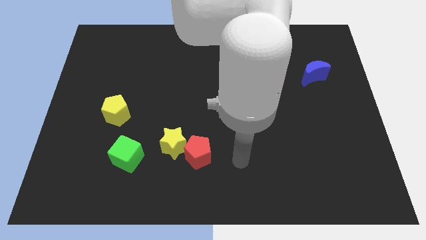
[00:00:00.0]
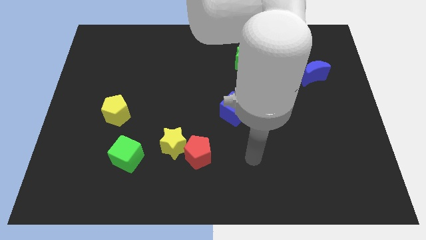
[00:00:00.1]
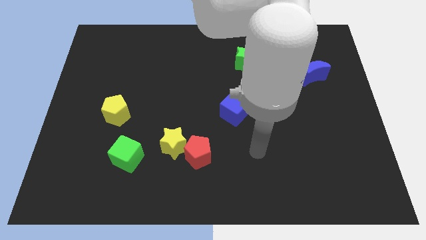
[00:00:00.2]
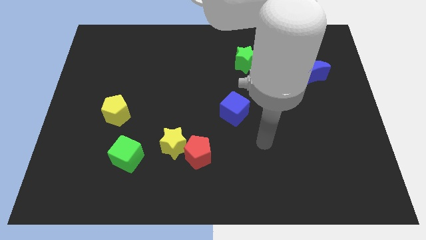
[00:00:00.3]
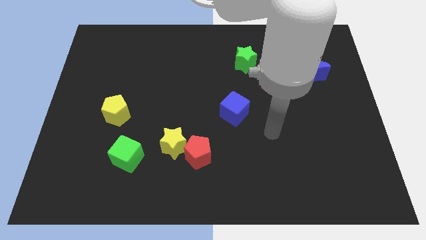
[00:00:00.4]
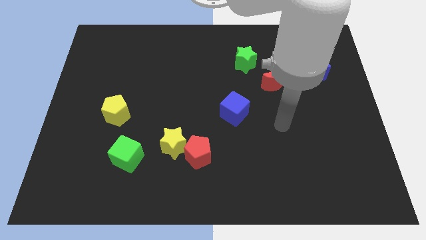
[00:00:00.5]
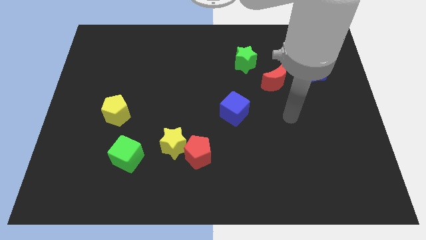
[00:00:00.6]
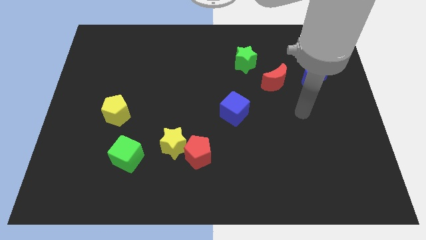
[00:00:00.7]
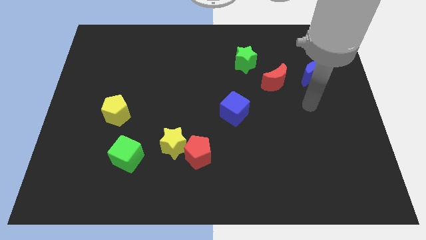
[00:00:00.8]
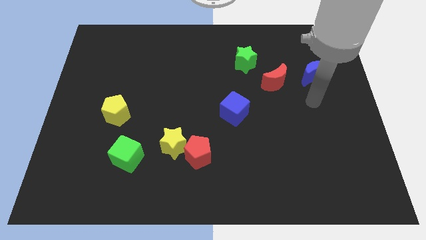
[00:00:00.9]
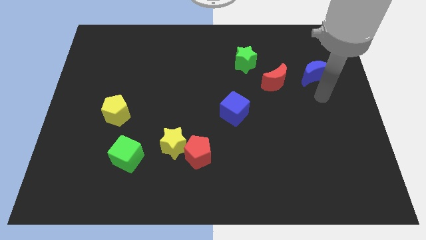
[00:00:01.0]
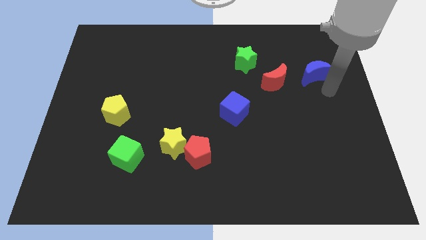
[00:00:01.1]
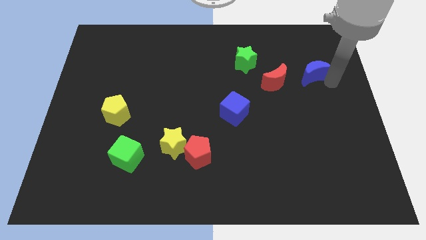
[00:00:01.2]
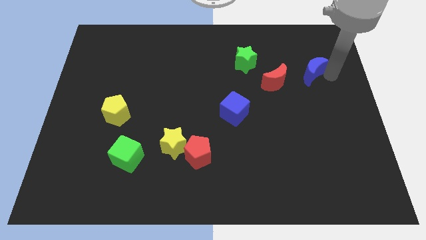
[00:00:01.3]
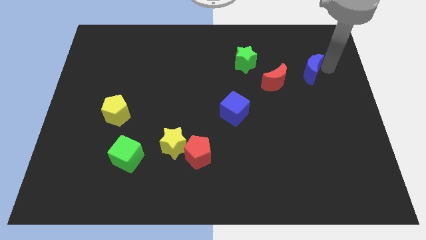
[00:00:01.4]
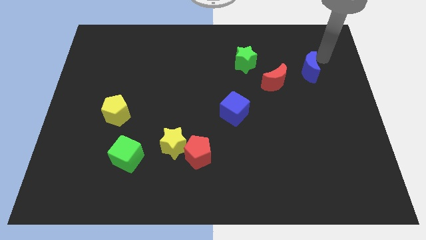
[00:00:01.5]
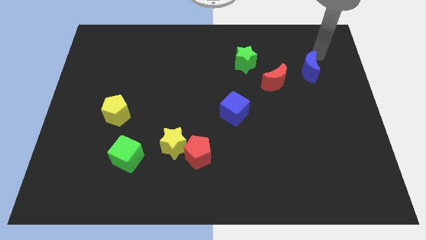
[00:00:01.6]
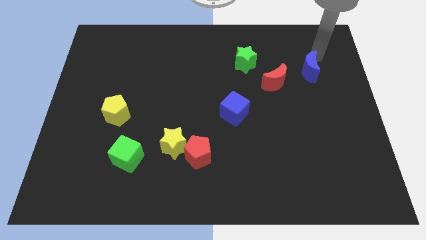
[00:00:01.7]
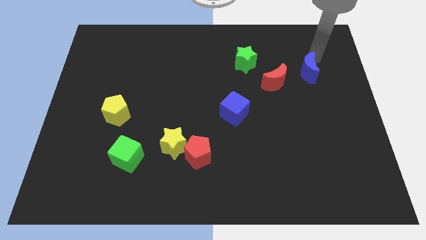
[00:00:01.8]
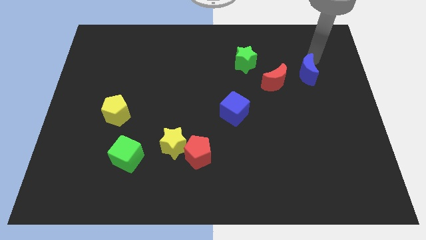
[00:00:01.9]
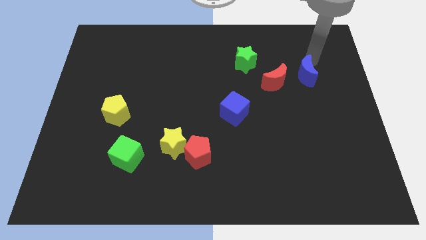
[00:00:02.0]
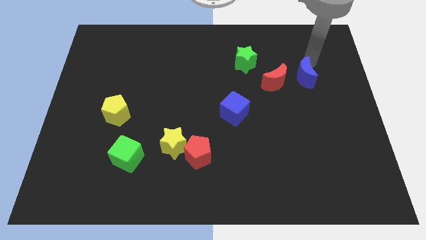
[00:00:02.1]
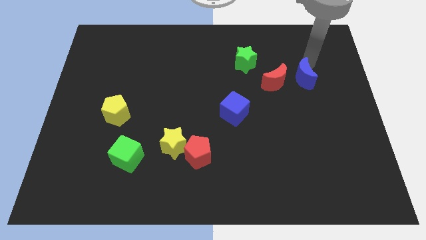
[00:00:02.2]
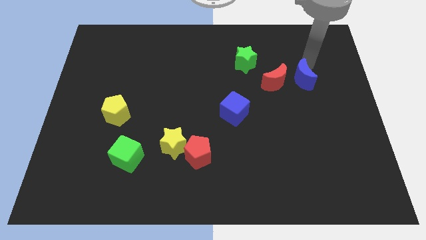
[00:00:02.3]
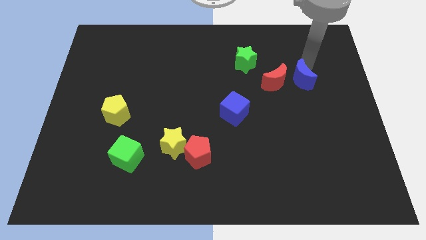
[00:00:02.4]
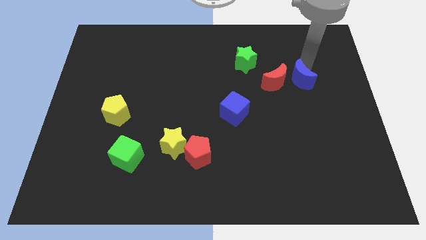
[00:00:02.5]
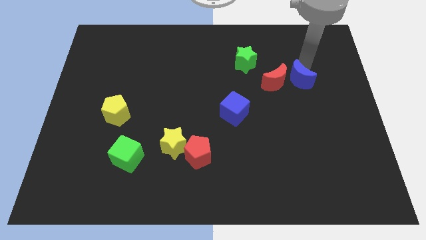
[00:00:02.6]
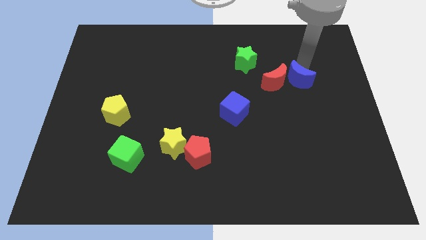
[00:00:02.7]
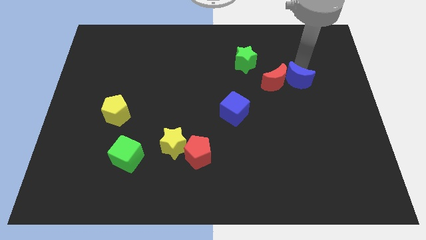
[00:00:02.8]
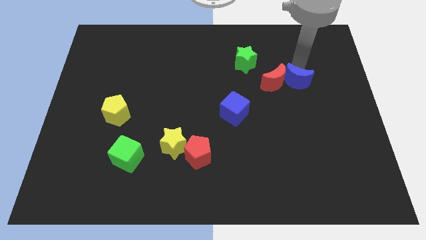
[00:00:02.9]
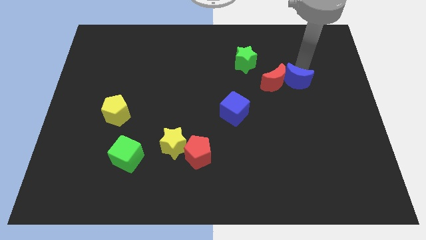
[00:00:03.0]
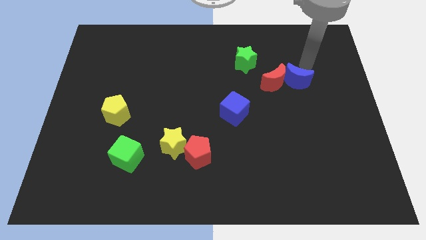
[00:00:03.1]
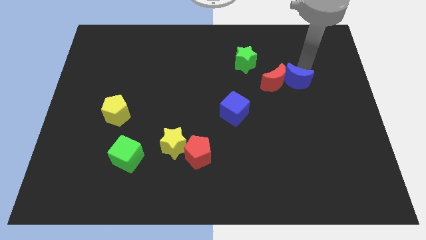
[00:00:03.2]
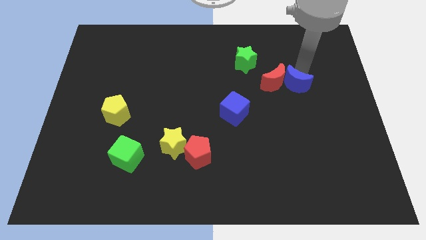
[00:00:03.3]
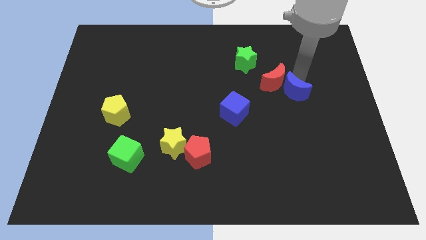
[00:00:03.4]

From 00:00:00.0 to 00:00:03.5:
move the blue moon somewhat down and left diagonally

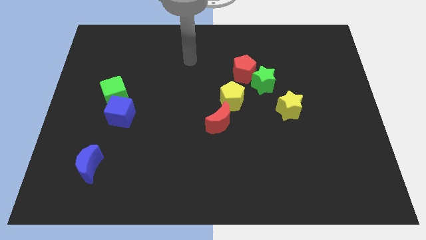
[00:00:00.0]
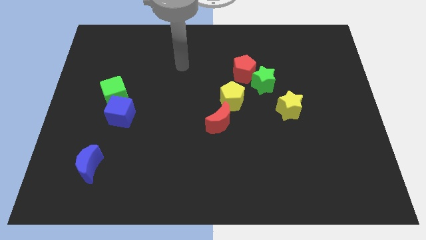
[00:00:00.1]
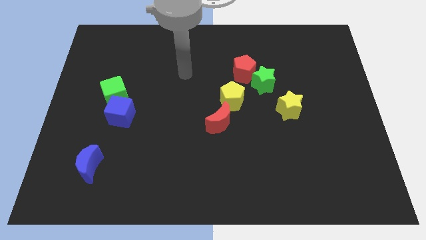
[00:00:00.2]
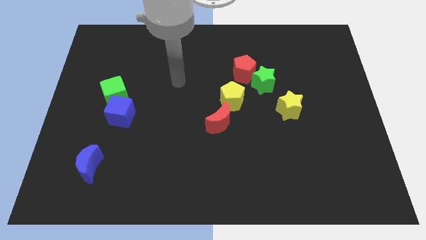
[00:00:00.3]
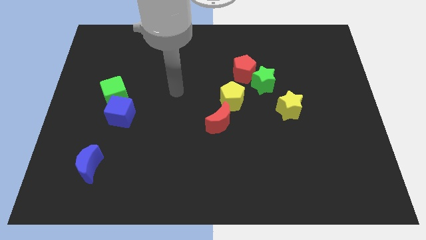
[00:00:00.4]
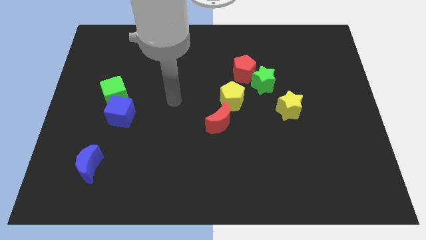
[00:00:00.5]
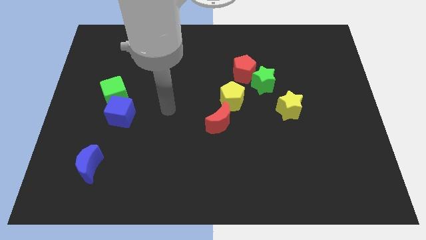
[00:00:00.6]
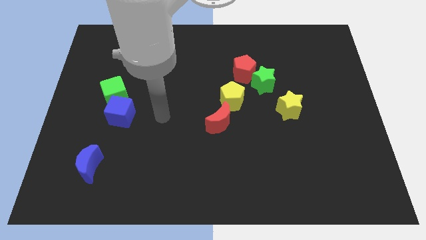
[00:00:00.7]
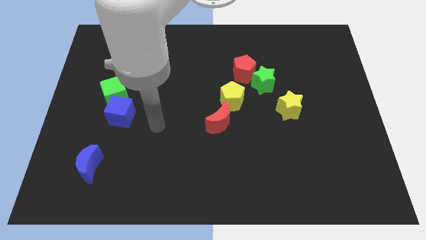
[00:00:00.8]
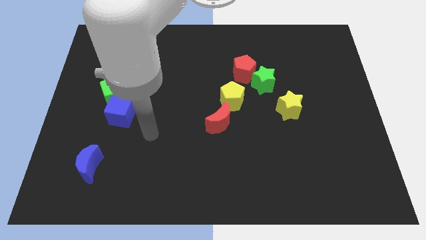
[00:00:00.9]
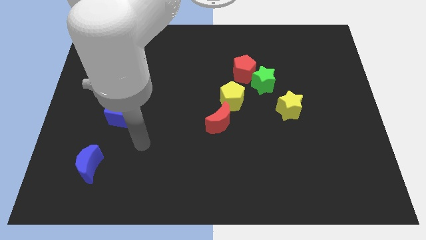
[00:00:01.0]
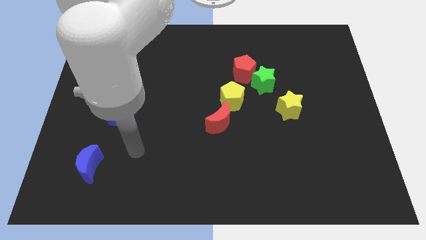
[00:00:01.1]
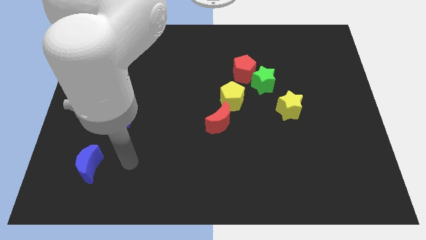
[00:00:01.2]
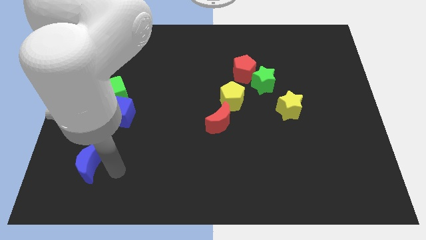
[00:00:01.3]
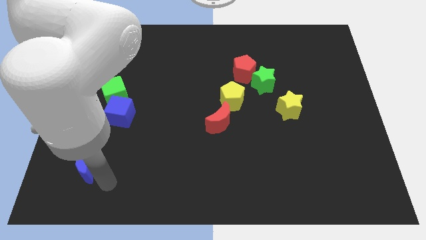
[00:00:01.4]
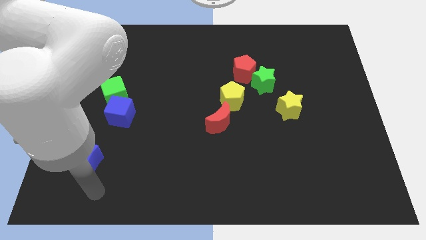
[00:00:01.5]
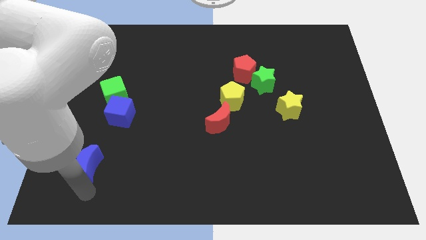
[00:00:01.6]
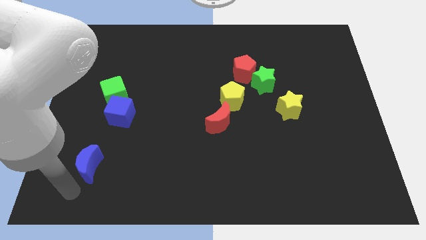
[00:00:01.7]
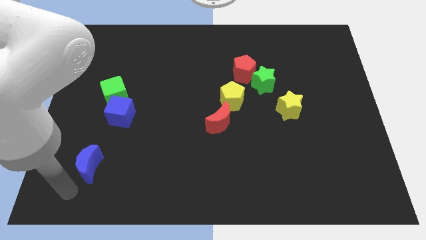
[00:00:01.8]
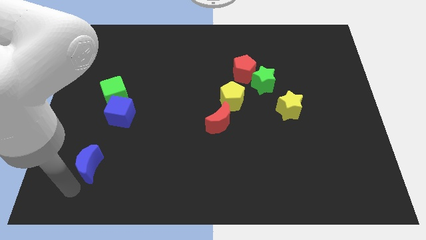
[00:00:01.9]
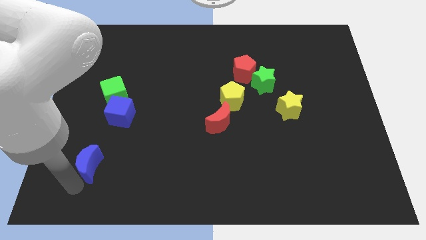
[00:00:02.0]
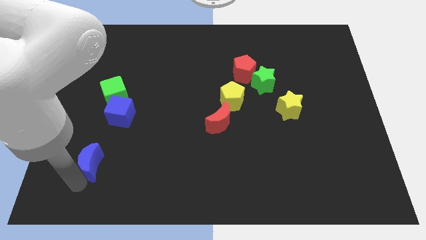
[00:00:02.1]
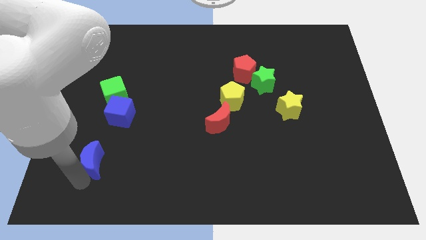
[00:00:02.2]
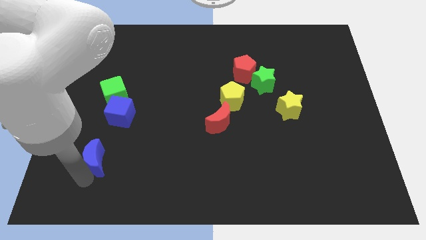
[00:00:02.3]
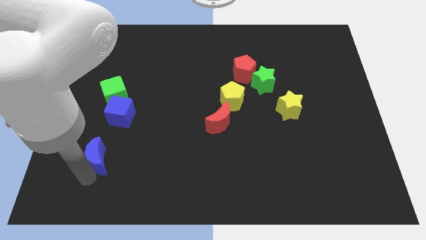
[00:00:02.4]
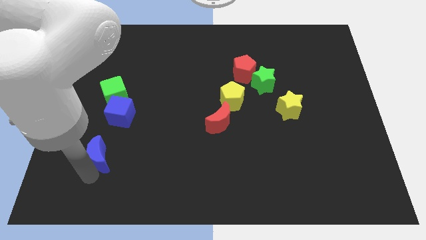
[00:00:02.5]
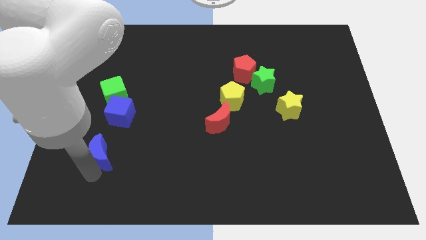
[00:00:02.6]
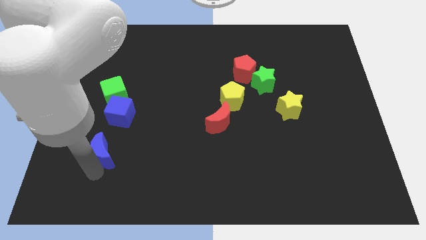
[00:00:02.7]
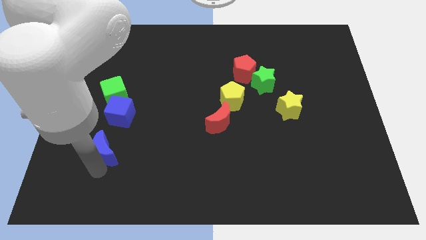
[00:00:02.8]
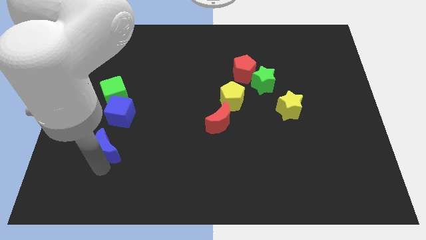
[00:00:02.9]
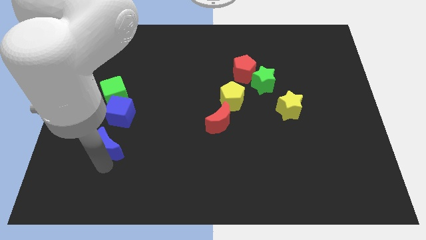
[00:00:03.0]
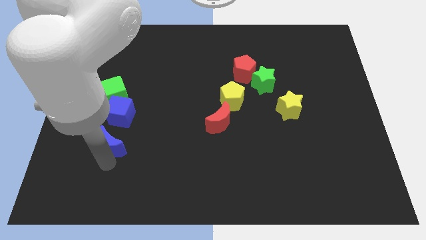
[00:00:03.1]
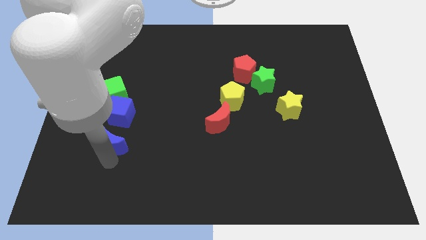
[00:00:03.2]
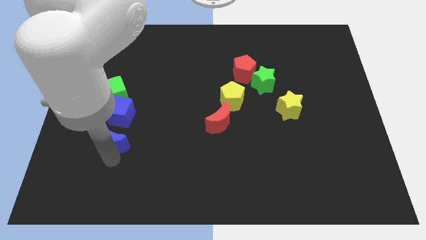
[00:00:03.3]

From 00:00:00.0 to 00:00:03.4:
slide the blue moon up and to the right a little

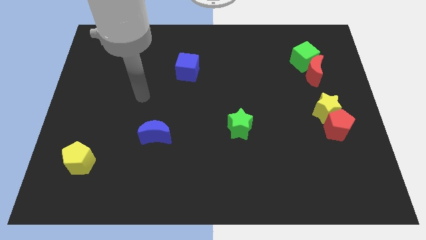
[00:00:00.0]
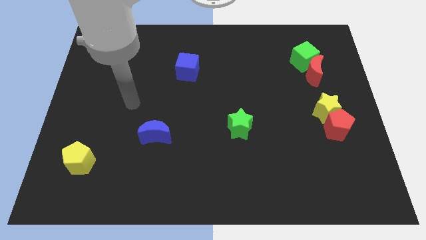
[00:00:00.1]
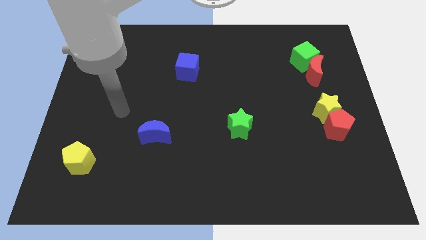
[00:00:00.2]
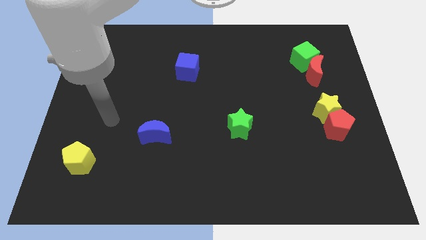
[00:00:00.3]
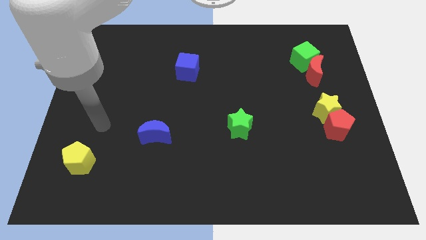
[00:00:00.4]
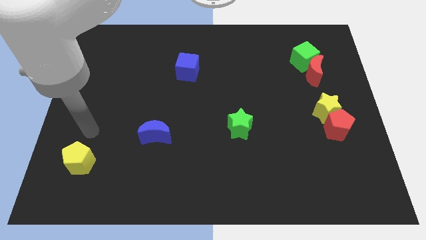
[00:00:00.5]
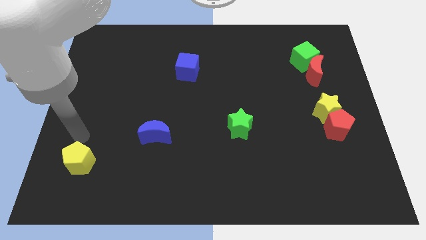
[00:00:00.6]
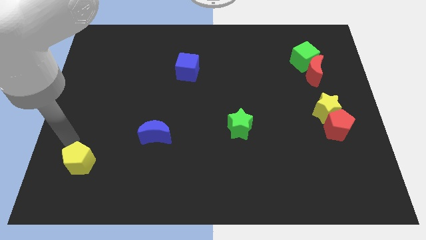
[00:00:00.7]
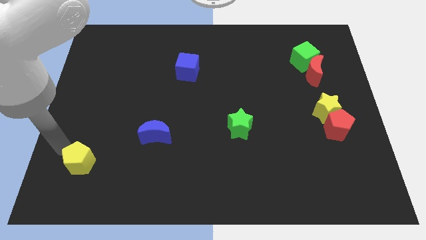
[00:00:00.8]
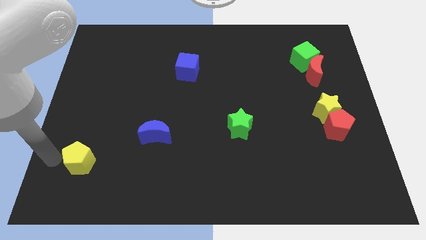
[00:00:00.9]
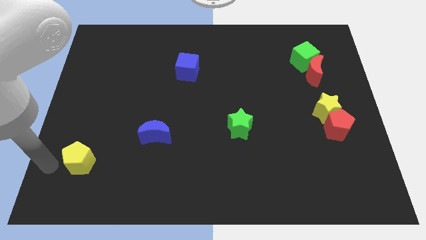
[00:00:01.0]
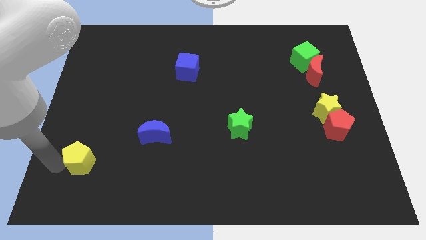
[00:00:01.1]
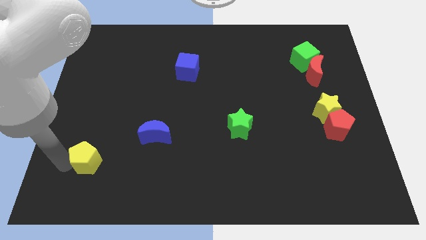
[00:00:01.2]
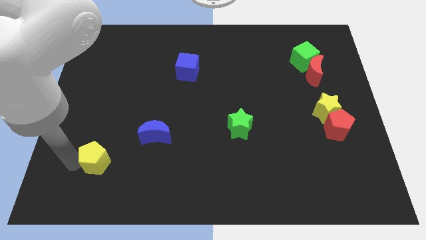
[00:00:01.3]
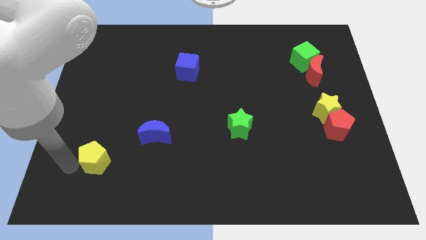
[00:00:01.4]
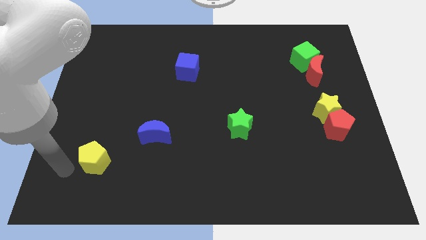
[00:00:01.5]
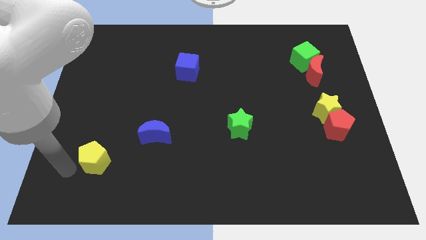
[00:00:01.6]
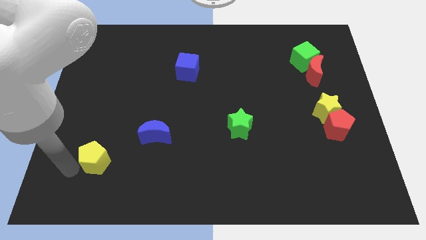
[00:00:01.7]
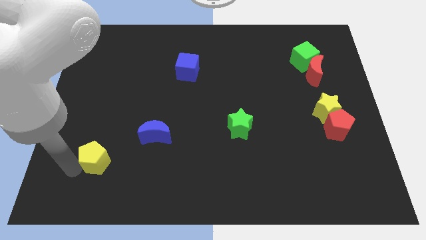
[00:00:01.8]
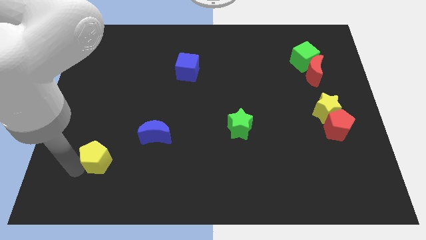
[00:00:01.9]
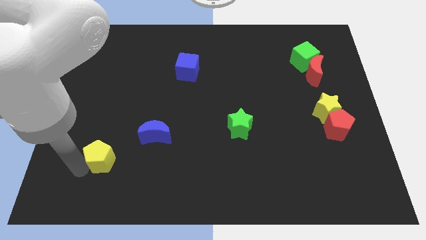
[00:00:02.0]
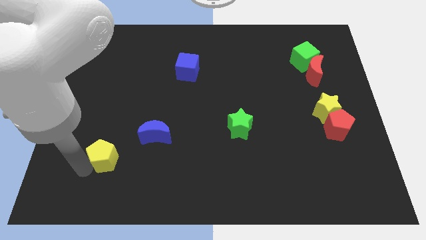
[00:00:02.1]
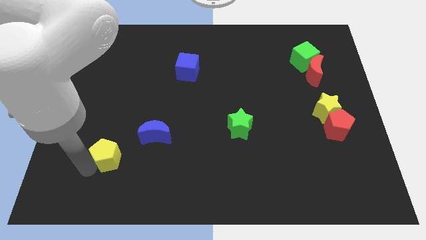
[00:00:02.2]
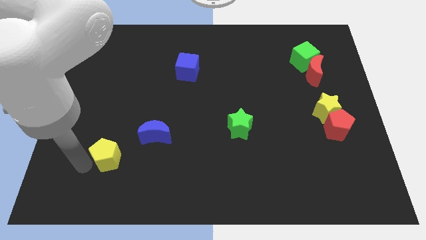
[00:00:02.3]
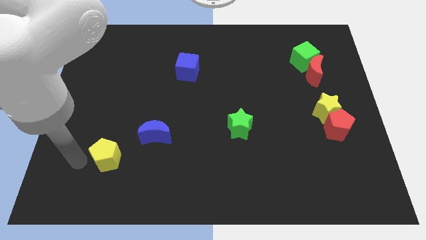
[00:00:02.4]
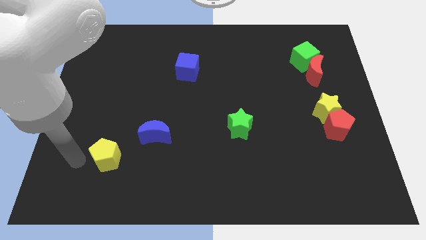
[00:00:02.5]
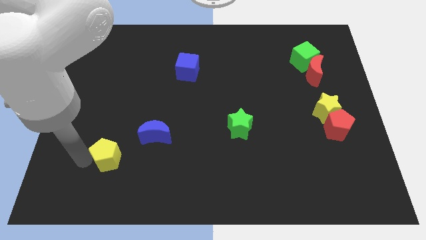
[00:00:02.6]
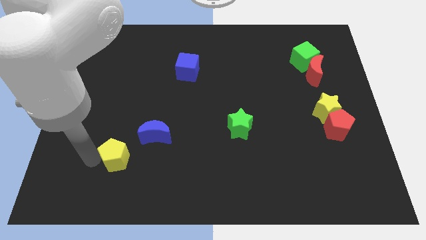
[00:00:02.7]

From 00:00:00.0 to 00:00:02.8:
slightly slide the yellow pentagon right
